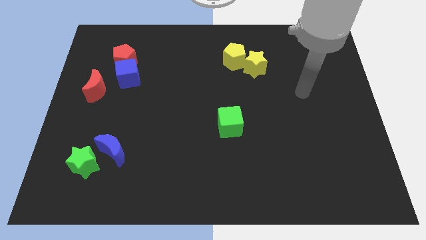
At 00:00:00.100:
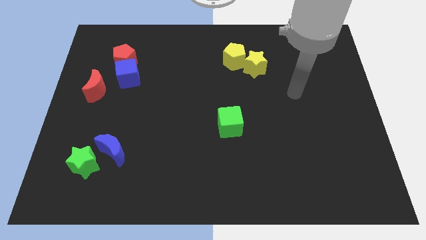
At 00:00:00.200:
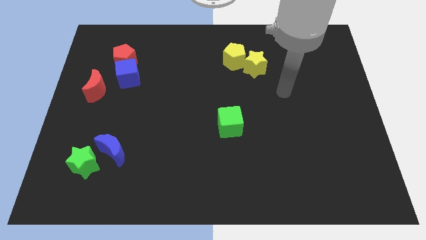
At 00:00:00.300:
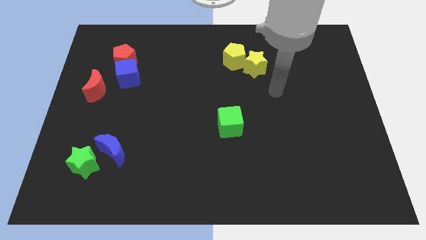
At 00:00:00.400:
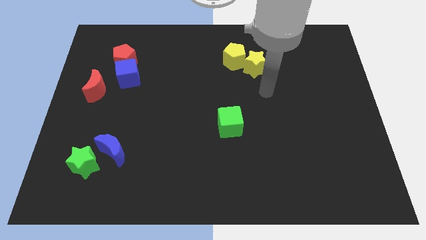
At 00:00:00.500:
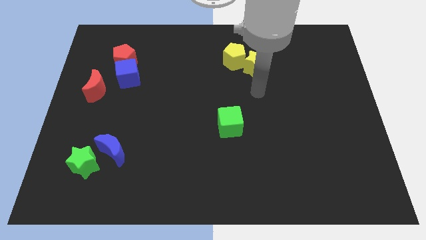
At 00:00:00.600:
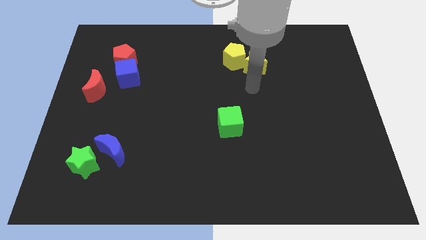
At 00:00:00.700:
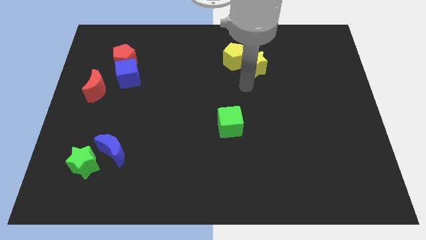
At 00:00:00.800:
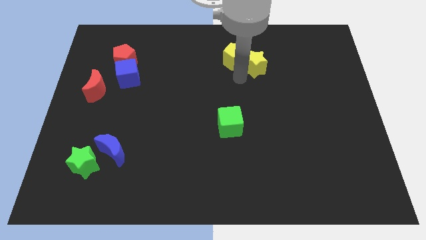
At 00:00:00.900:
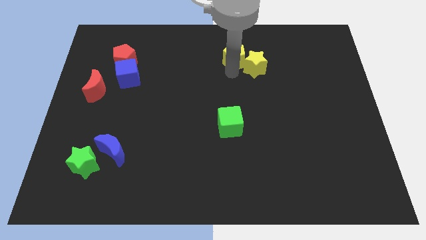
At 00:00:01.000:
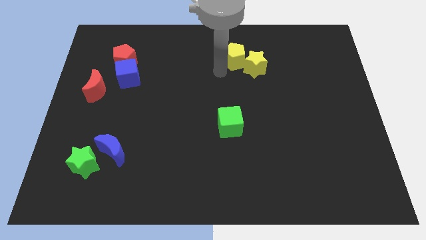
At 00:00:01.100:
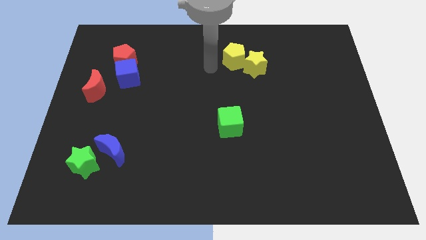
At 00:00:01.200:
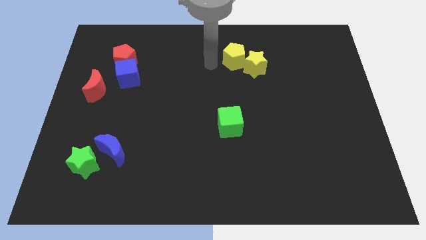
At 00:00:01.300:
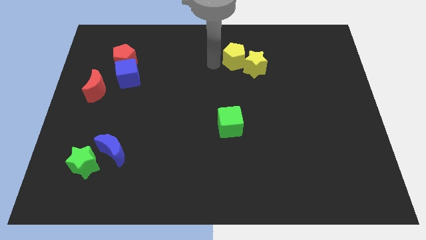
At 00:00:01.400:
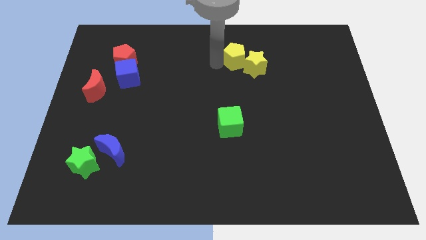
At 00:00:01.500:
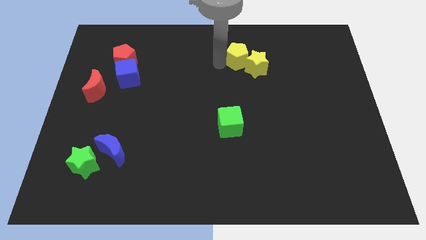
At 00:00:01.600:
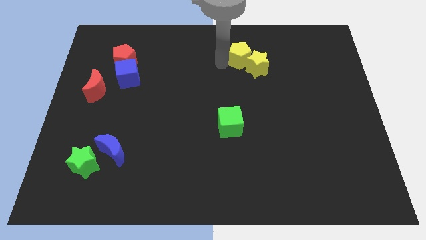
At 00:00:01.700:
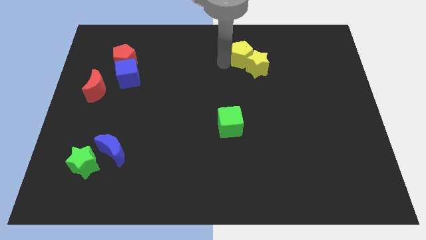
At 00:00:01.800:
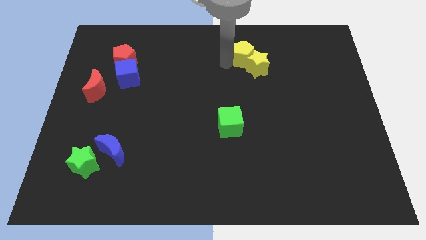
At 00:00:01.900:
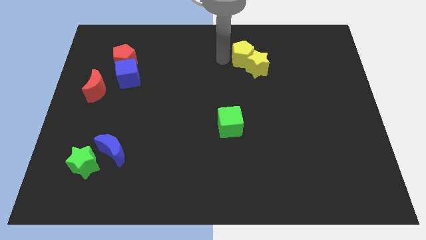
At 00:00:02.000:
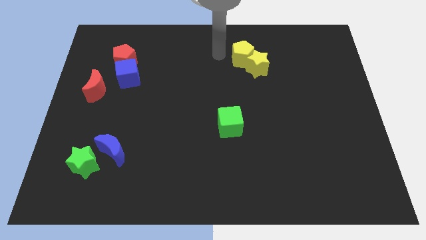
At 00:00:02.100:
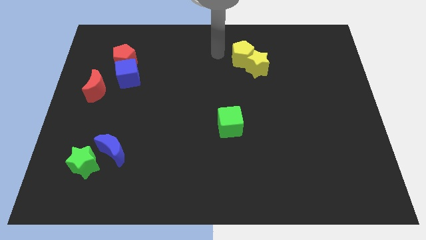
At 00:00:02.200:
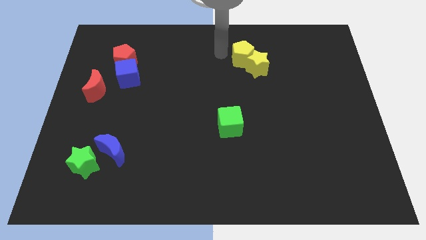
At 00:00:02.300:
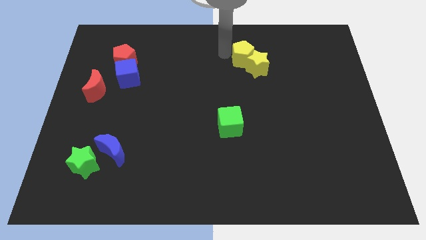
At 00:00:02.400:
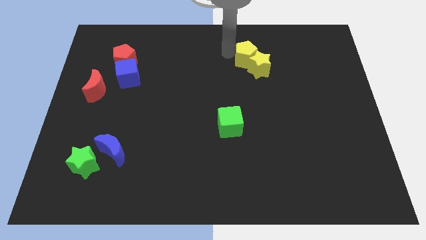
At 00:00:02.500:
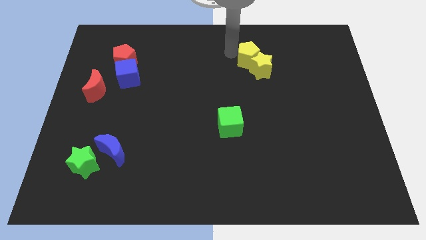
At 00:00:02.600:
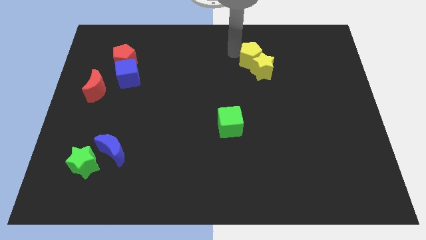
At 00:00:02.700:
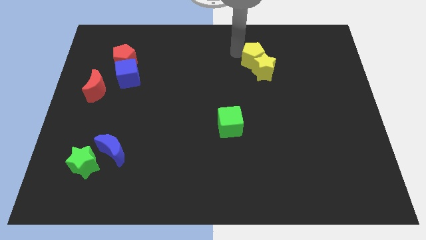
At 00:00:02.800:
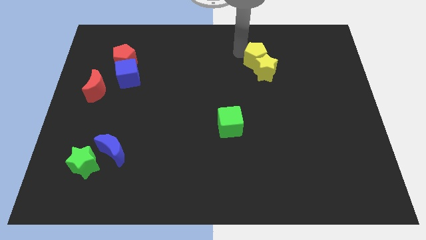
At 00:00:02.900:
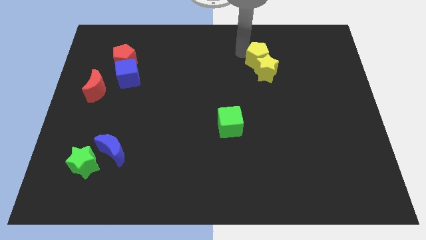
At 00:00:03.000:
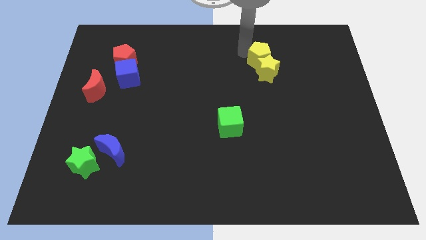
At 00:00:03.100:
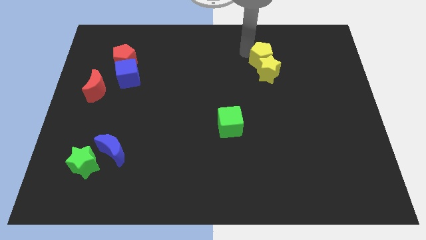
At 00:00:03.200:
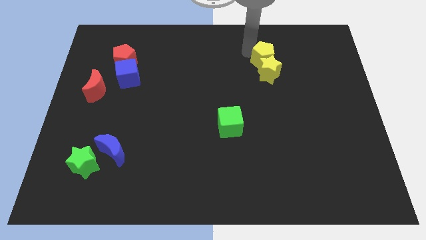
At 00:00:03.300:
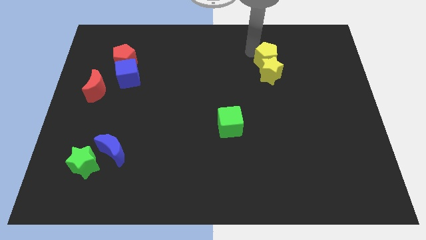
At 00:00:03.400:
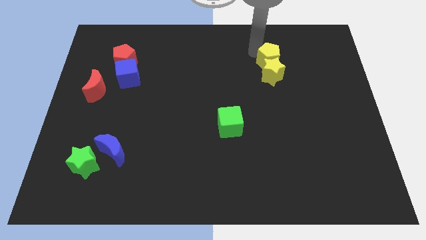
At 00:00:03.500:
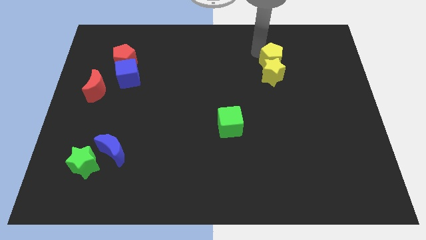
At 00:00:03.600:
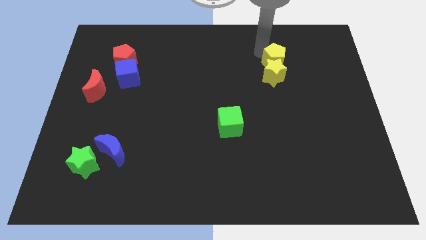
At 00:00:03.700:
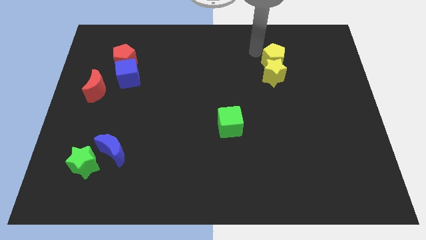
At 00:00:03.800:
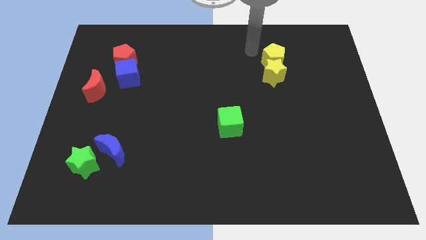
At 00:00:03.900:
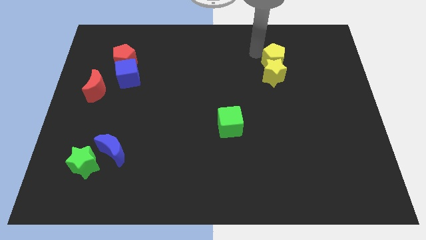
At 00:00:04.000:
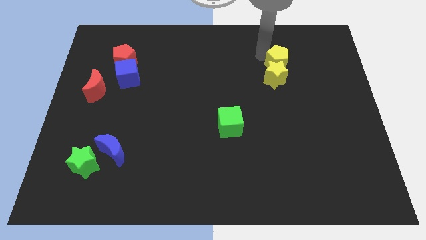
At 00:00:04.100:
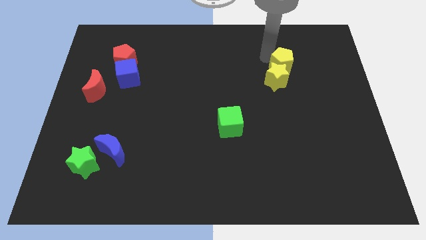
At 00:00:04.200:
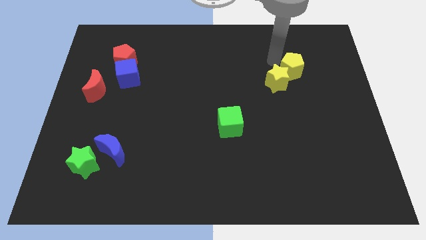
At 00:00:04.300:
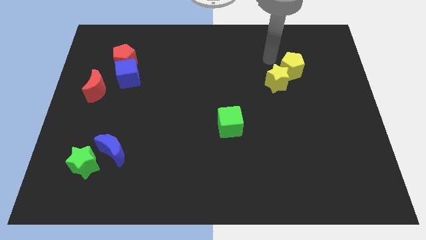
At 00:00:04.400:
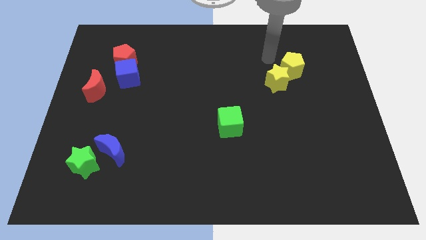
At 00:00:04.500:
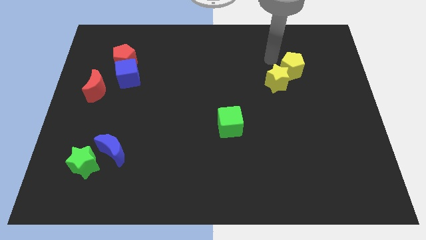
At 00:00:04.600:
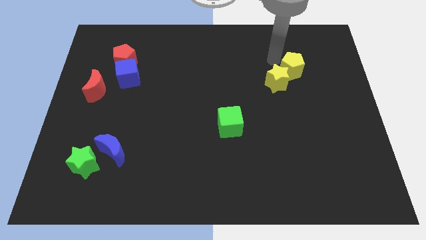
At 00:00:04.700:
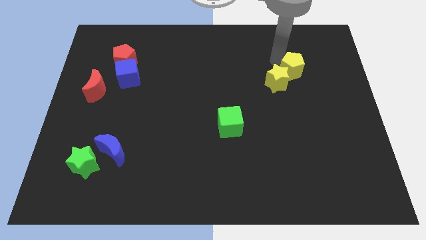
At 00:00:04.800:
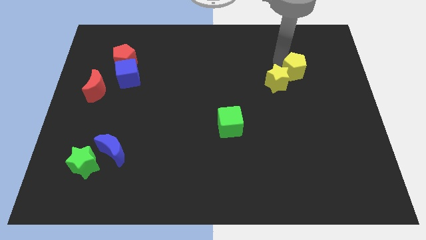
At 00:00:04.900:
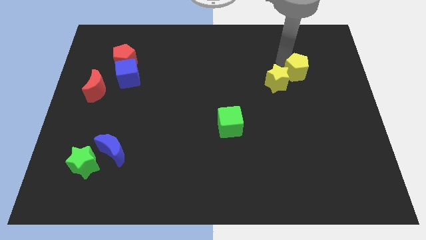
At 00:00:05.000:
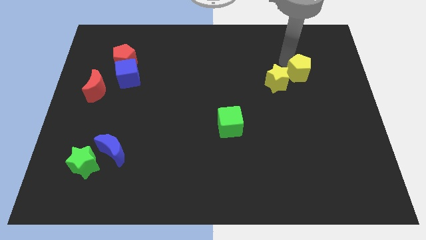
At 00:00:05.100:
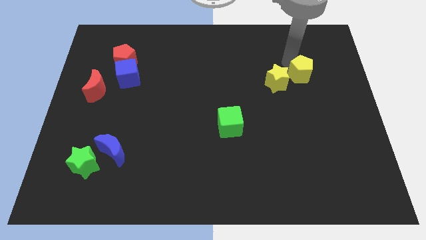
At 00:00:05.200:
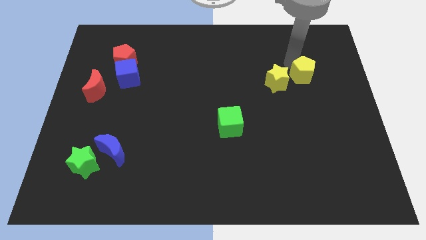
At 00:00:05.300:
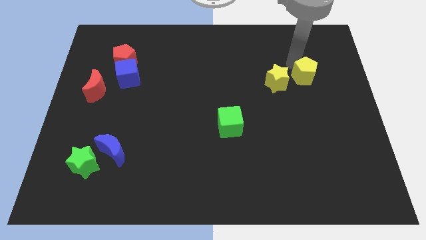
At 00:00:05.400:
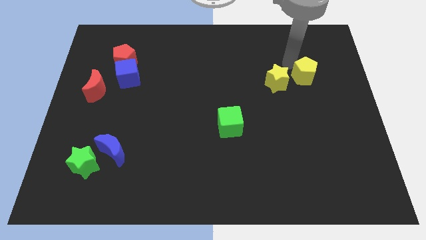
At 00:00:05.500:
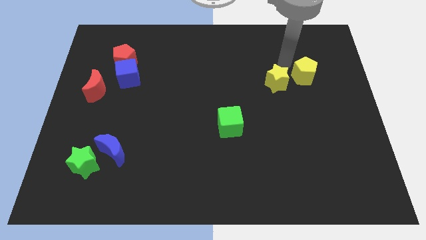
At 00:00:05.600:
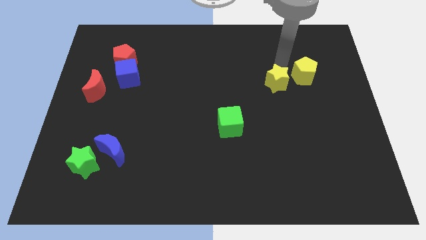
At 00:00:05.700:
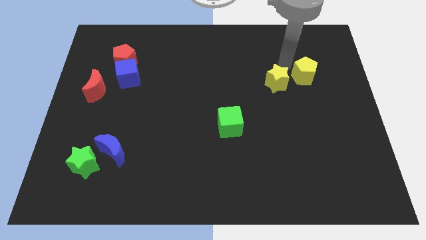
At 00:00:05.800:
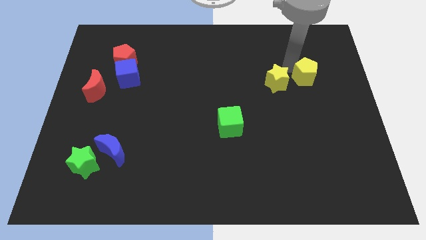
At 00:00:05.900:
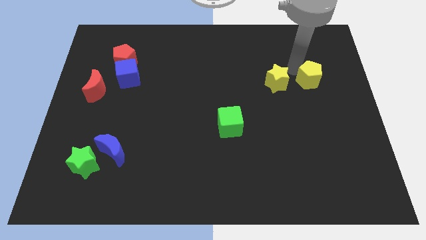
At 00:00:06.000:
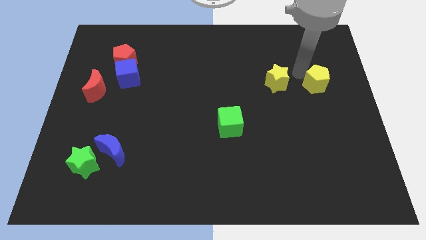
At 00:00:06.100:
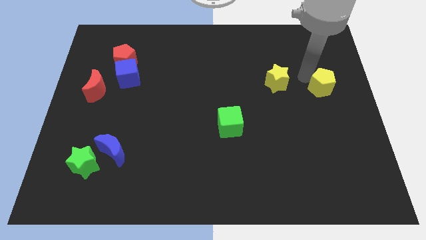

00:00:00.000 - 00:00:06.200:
put the yellow pentagon to the right side
